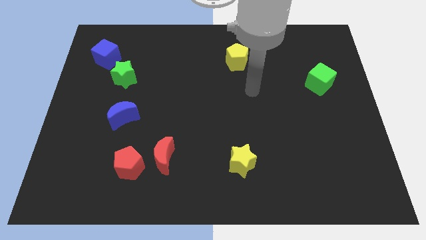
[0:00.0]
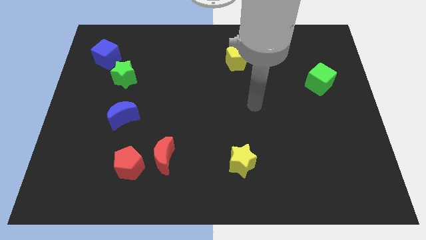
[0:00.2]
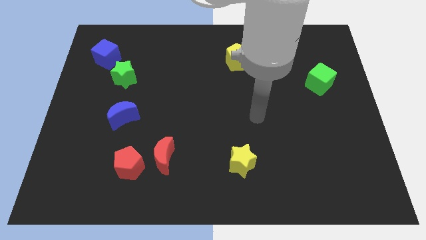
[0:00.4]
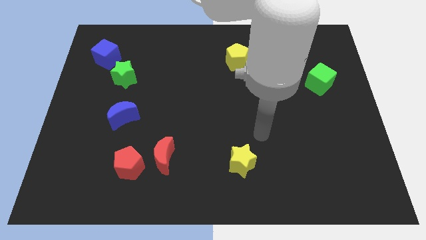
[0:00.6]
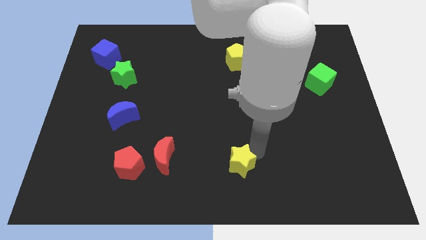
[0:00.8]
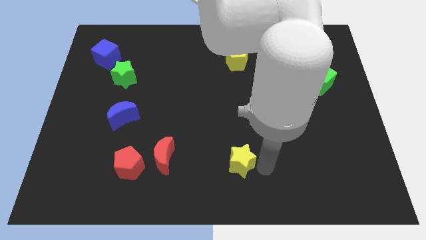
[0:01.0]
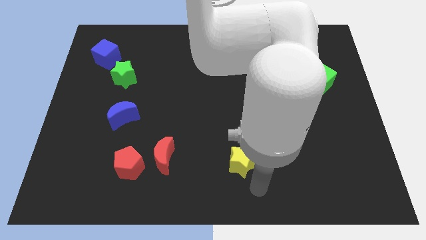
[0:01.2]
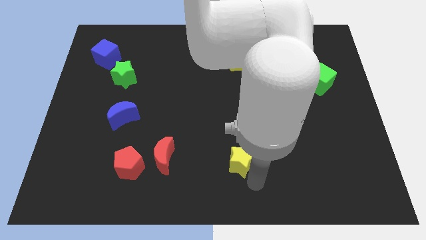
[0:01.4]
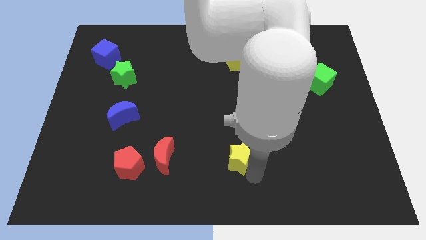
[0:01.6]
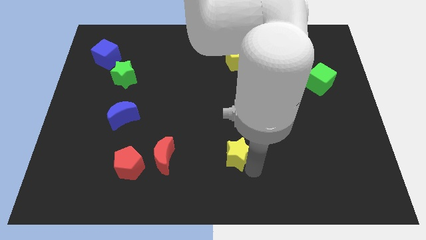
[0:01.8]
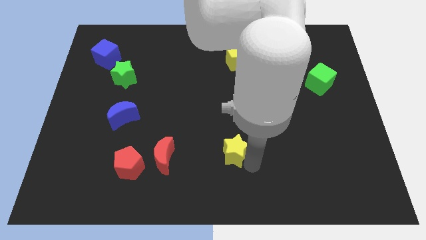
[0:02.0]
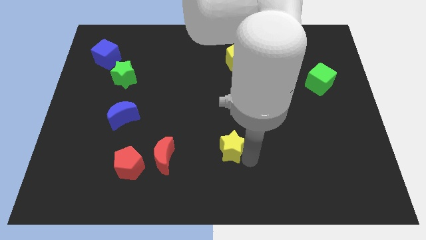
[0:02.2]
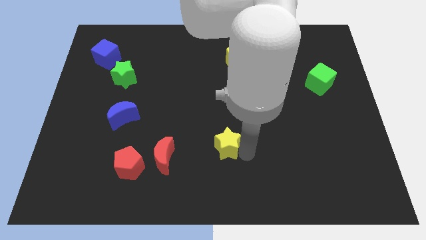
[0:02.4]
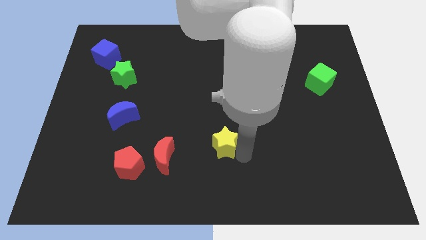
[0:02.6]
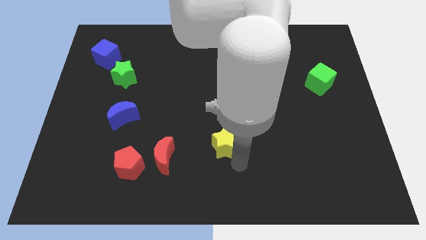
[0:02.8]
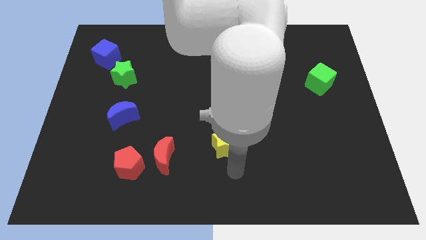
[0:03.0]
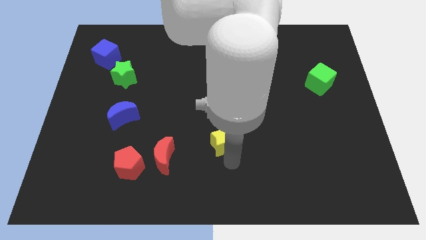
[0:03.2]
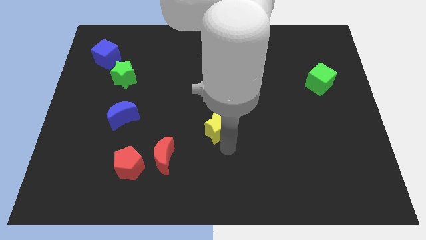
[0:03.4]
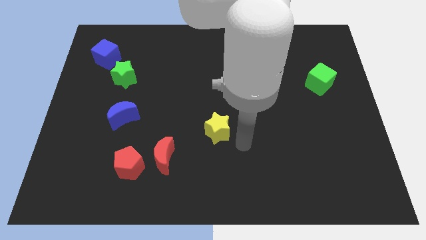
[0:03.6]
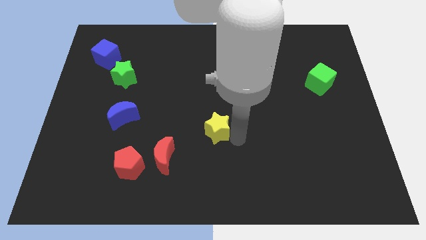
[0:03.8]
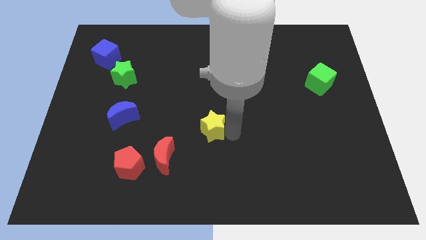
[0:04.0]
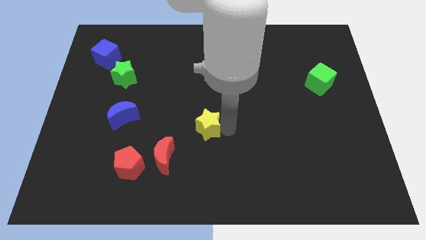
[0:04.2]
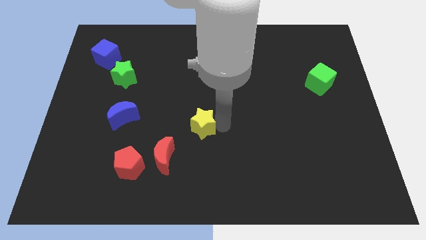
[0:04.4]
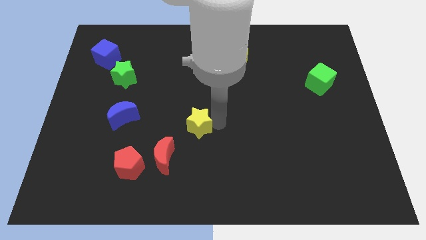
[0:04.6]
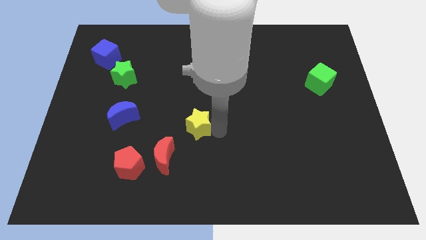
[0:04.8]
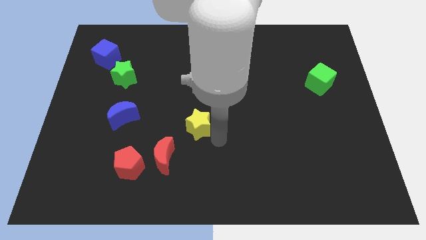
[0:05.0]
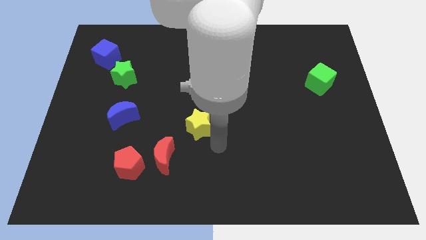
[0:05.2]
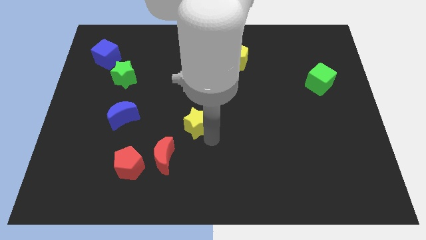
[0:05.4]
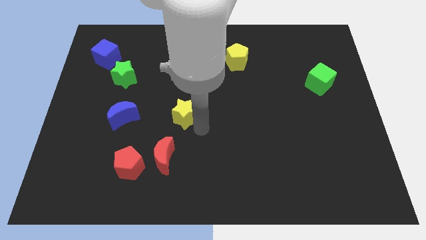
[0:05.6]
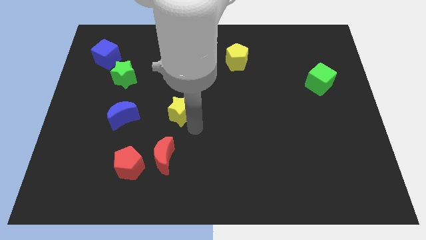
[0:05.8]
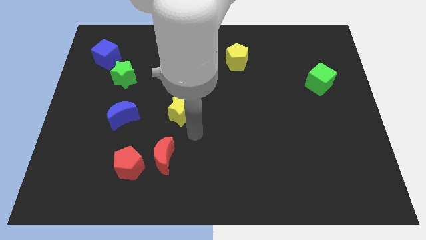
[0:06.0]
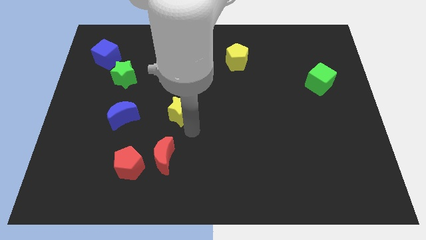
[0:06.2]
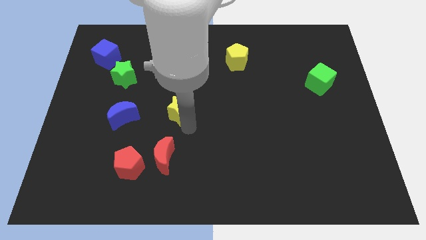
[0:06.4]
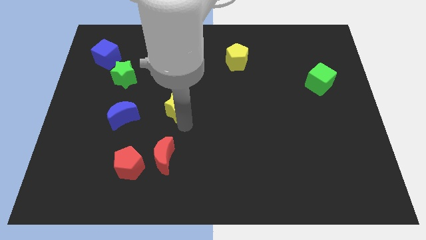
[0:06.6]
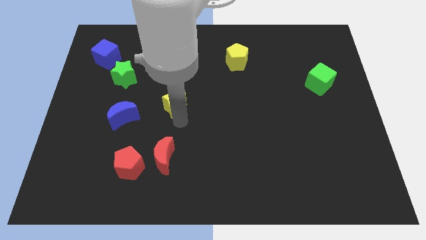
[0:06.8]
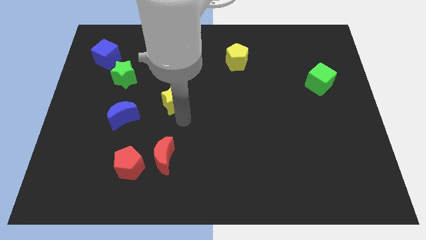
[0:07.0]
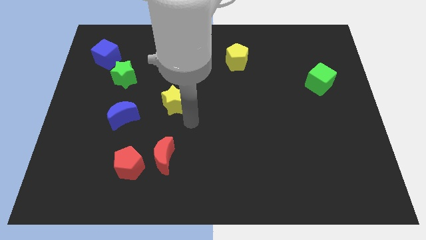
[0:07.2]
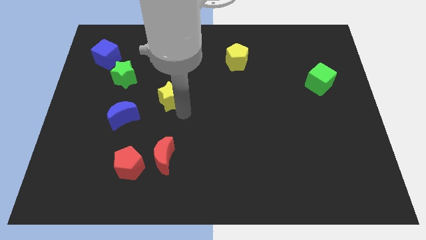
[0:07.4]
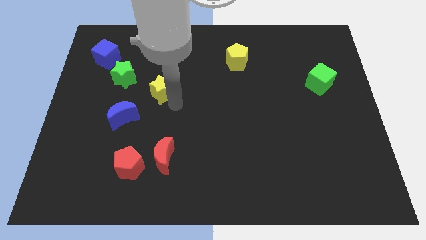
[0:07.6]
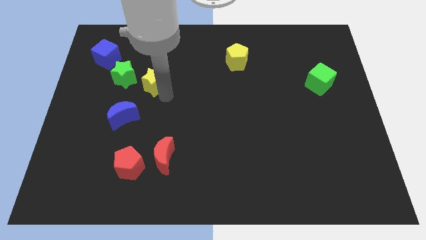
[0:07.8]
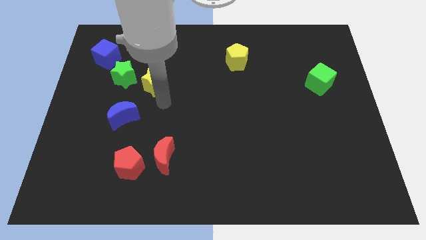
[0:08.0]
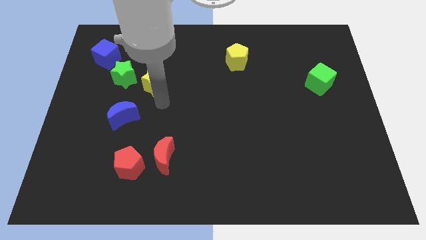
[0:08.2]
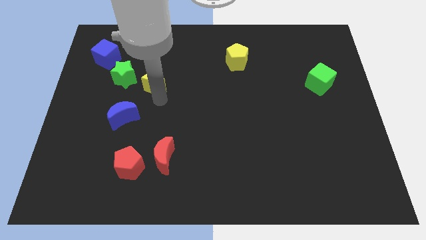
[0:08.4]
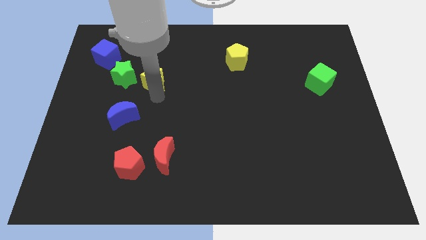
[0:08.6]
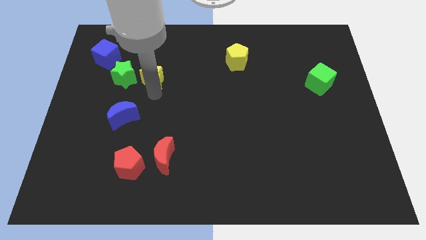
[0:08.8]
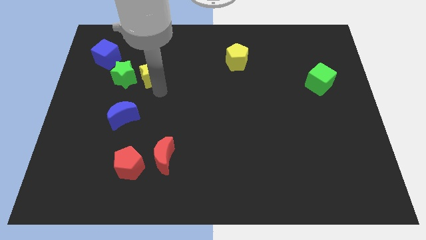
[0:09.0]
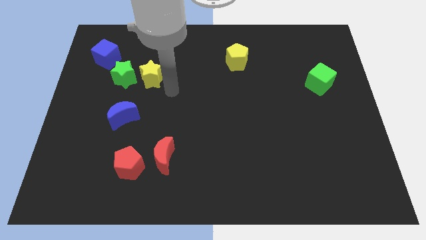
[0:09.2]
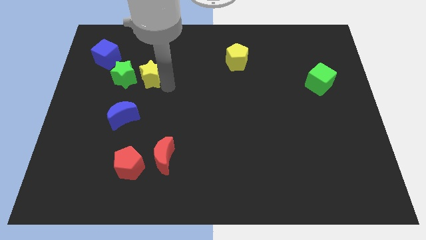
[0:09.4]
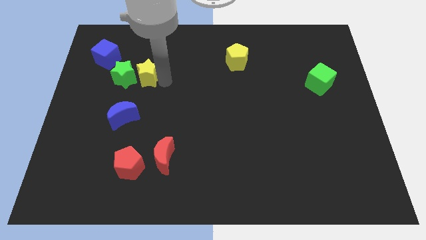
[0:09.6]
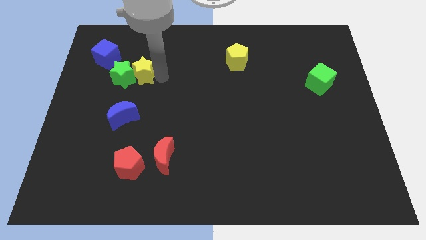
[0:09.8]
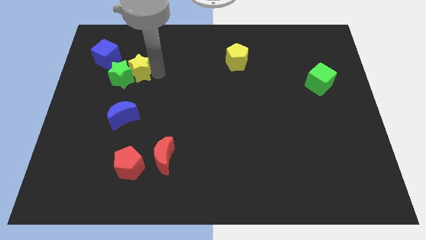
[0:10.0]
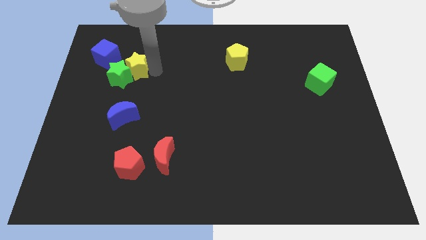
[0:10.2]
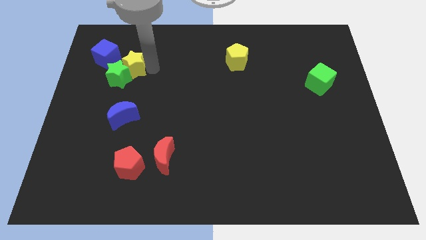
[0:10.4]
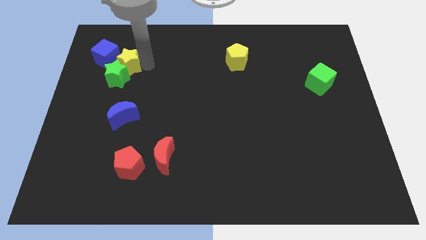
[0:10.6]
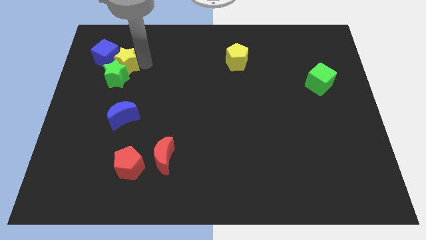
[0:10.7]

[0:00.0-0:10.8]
put the yellow star next to the blue cube

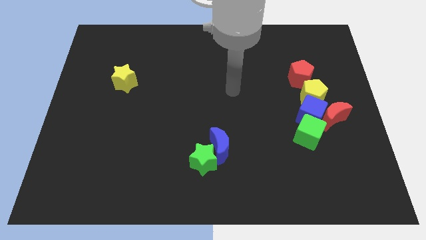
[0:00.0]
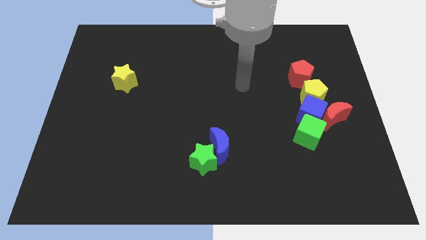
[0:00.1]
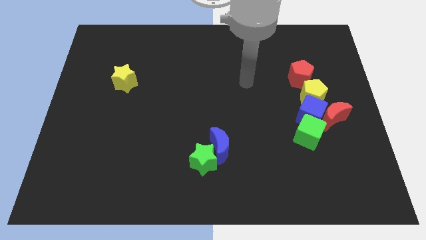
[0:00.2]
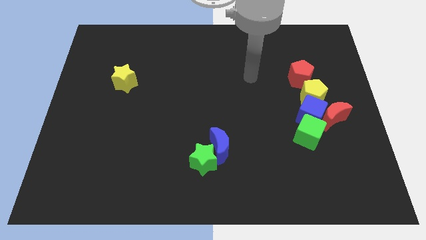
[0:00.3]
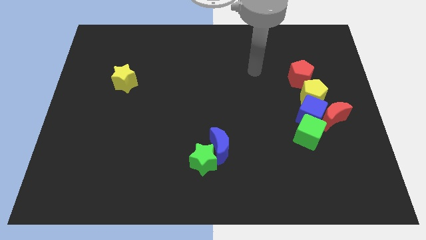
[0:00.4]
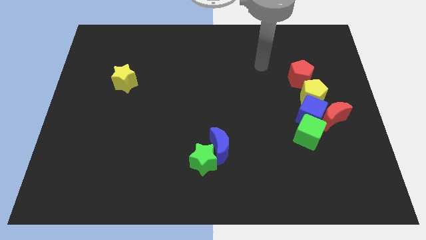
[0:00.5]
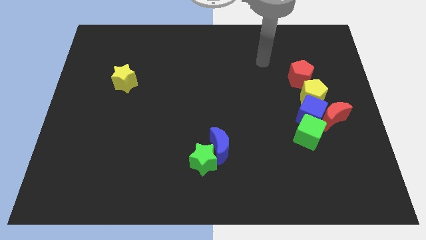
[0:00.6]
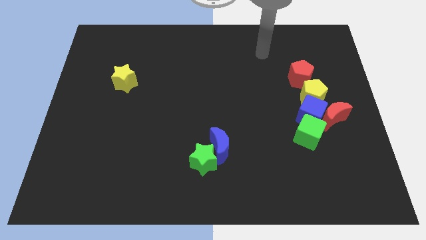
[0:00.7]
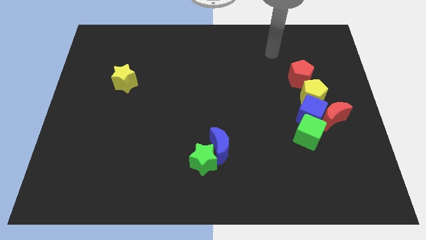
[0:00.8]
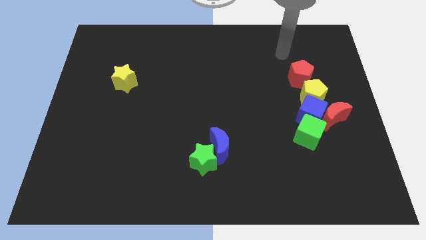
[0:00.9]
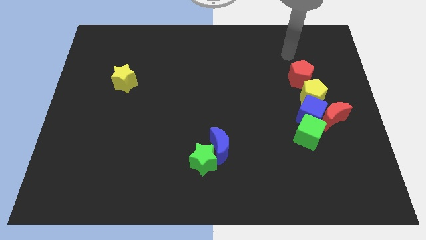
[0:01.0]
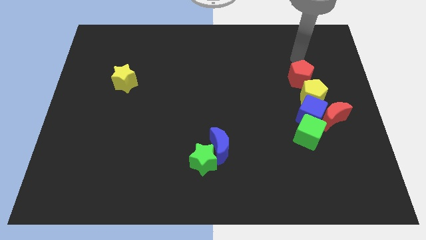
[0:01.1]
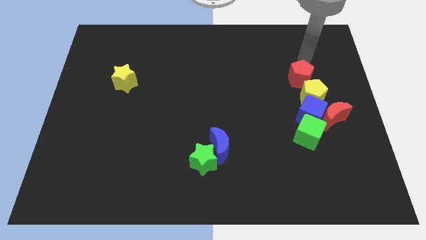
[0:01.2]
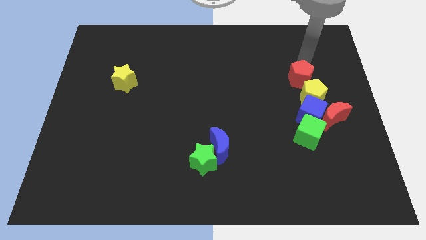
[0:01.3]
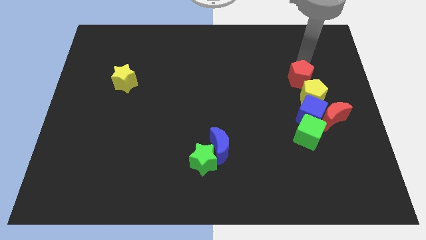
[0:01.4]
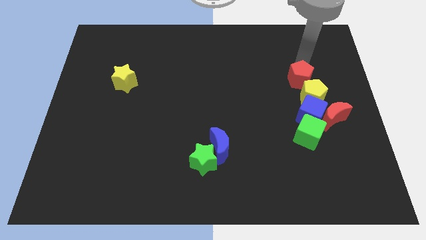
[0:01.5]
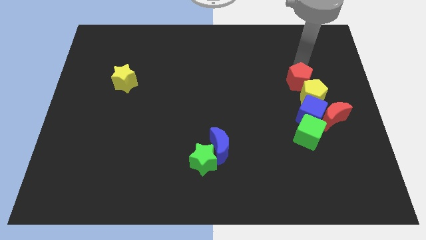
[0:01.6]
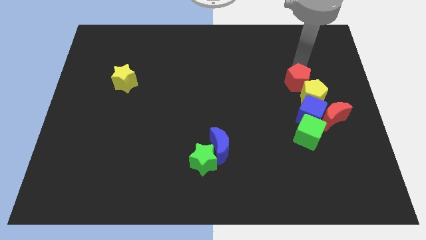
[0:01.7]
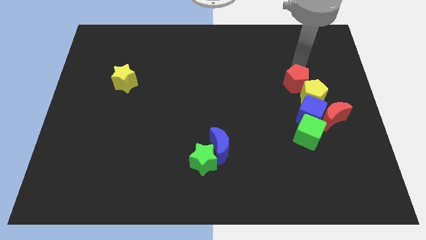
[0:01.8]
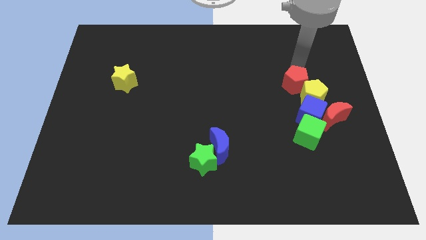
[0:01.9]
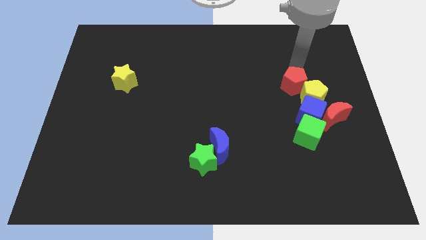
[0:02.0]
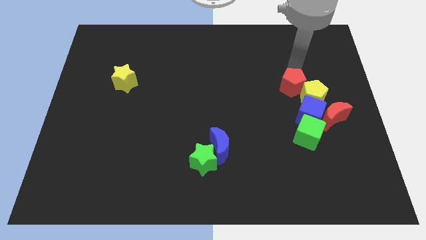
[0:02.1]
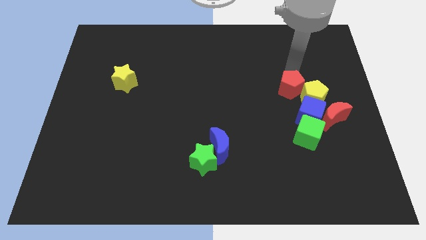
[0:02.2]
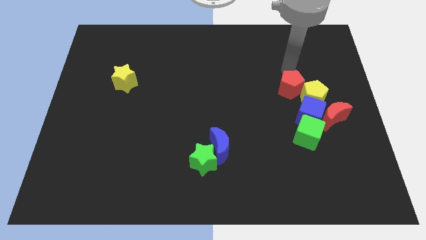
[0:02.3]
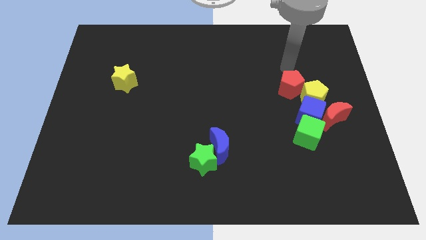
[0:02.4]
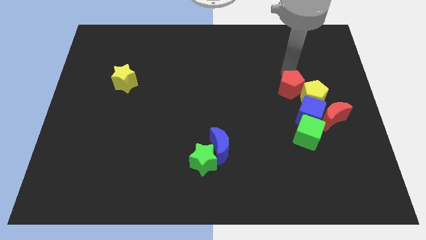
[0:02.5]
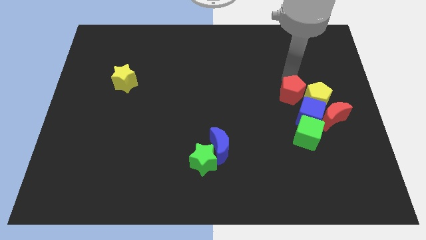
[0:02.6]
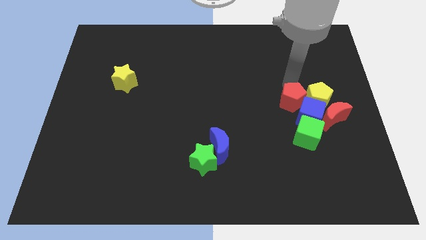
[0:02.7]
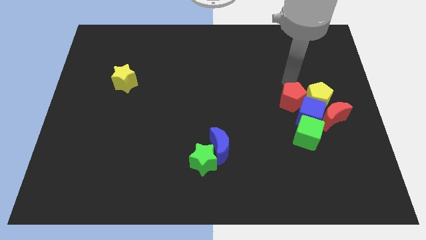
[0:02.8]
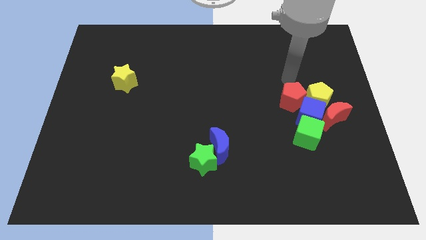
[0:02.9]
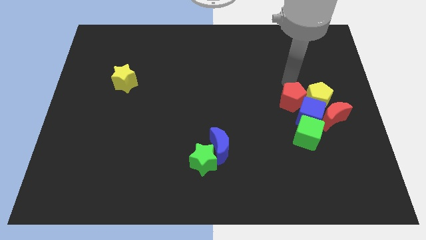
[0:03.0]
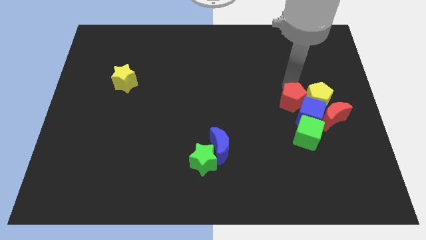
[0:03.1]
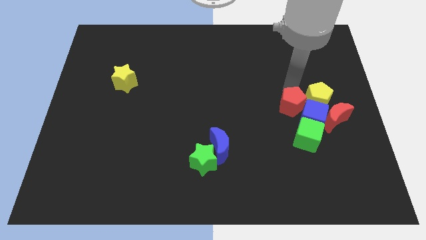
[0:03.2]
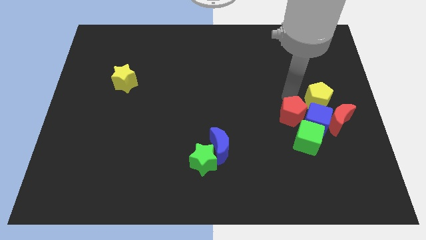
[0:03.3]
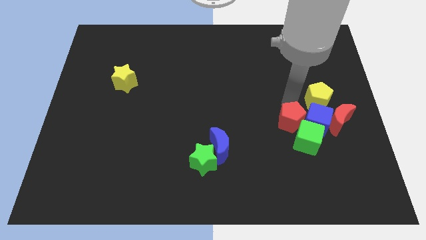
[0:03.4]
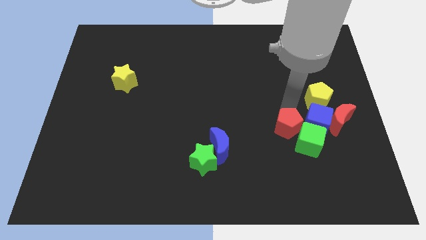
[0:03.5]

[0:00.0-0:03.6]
push the red pentagon next to the green cube
